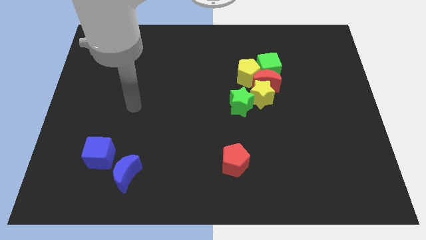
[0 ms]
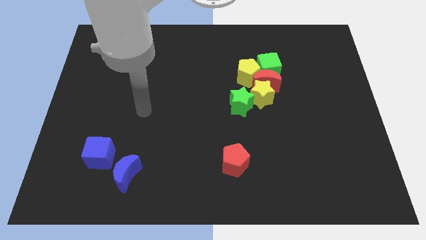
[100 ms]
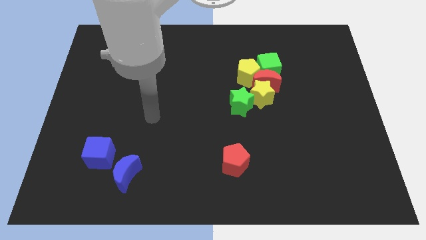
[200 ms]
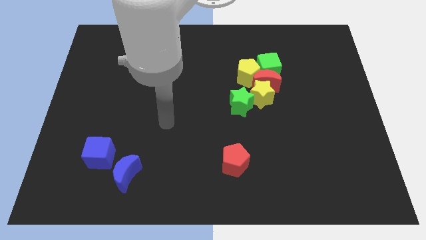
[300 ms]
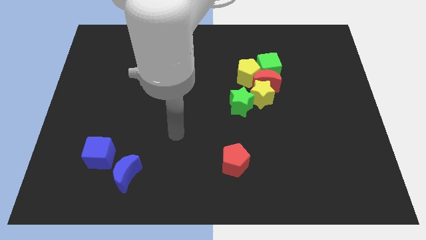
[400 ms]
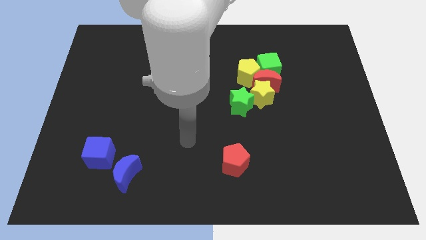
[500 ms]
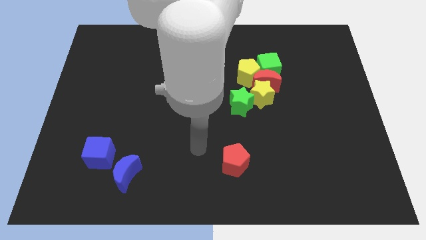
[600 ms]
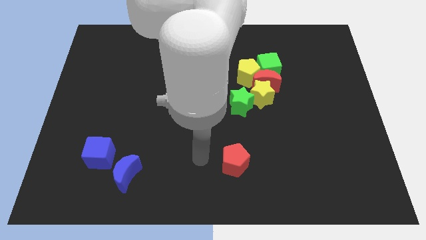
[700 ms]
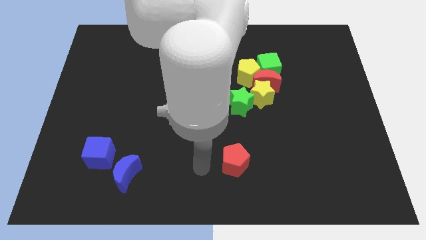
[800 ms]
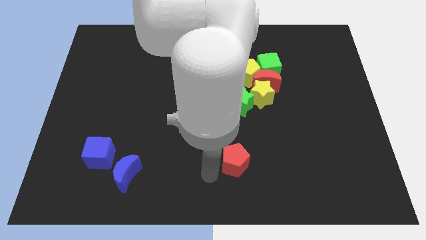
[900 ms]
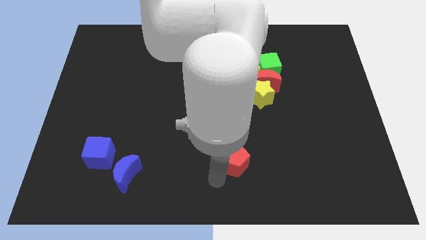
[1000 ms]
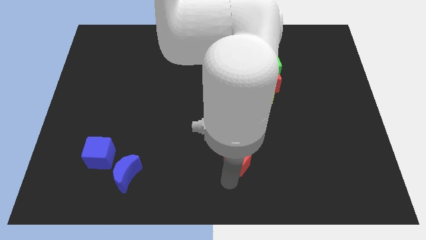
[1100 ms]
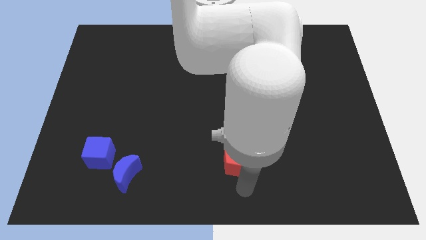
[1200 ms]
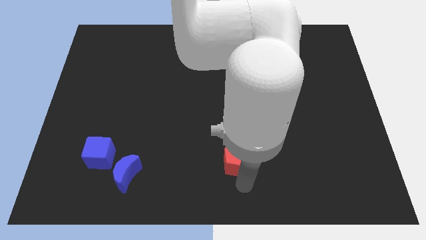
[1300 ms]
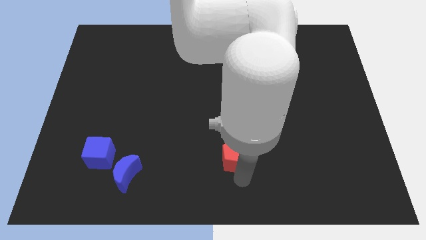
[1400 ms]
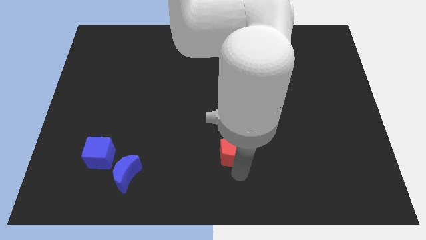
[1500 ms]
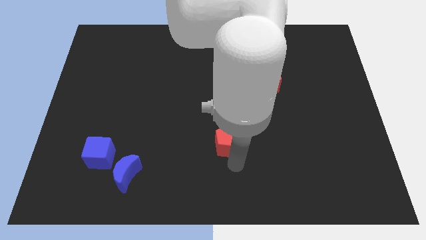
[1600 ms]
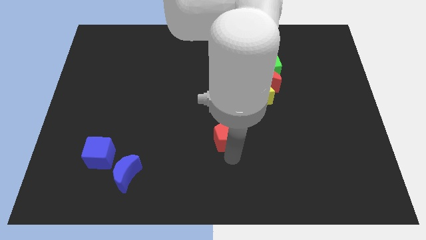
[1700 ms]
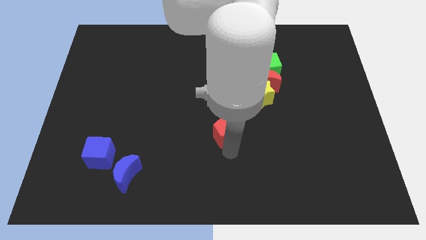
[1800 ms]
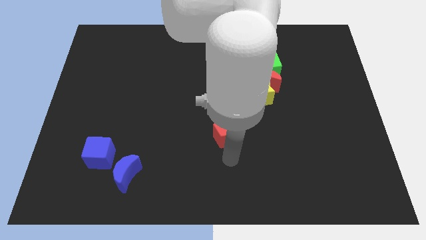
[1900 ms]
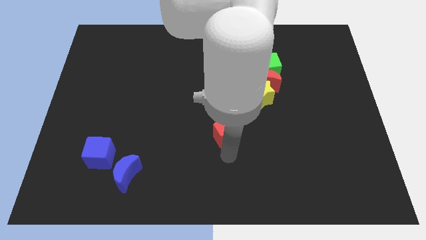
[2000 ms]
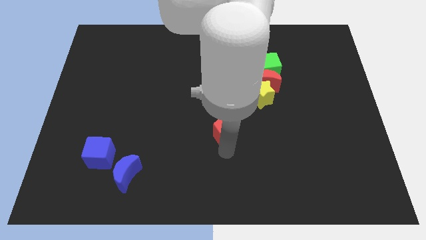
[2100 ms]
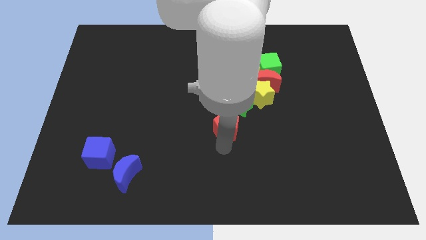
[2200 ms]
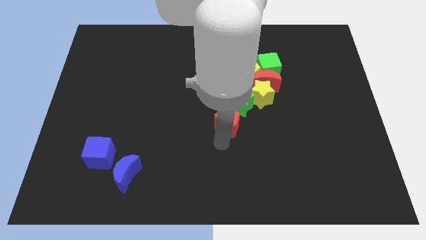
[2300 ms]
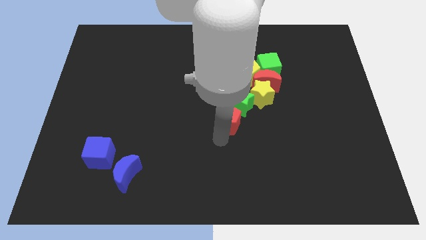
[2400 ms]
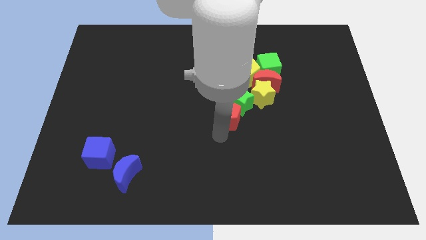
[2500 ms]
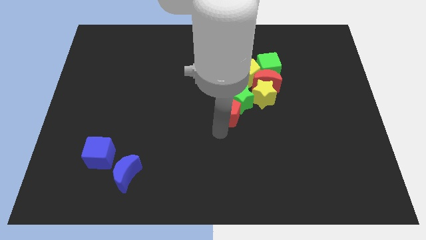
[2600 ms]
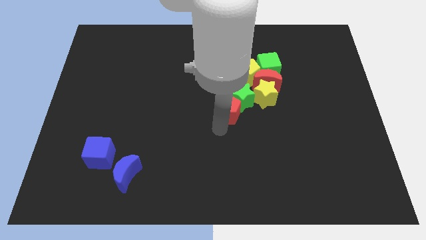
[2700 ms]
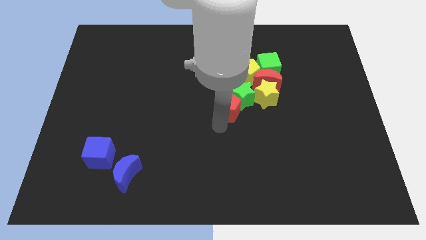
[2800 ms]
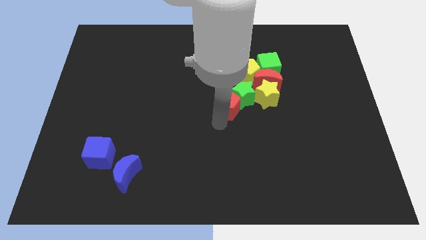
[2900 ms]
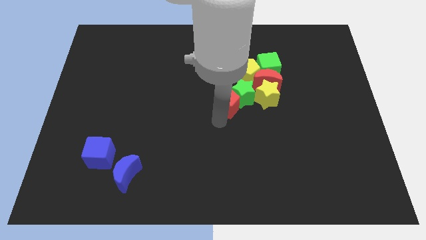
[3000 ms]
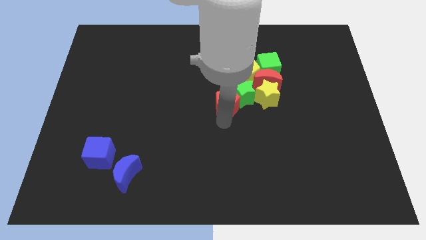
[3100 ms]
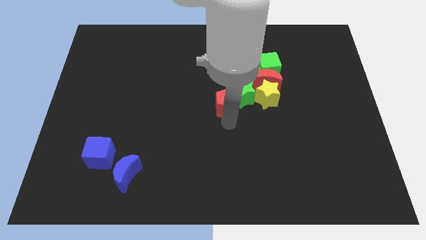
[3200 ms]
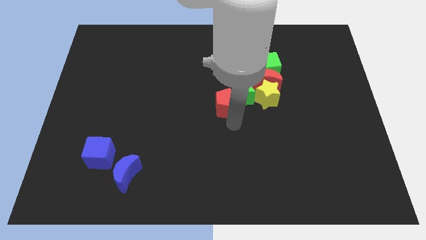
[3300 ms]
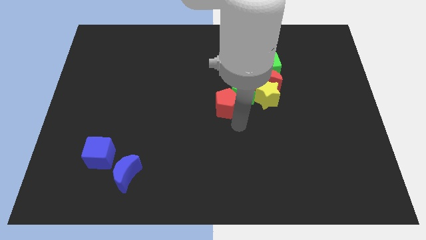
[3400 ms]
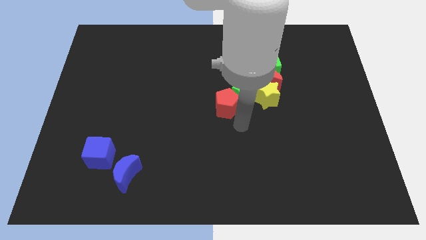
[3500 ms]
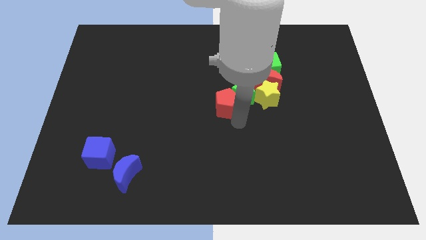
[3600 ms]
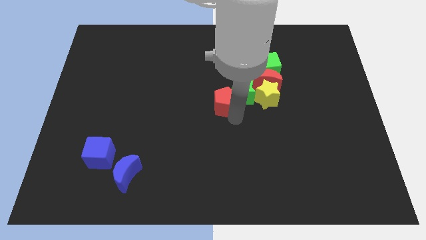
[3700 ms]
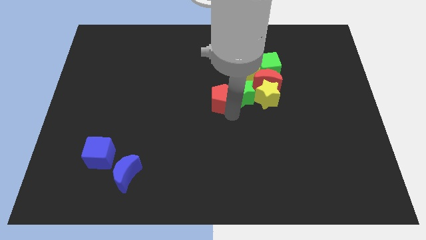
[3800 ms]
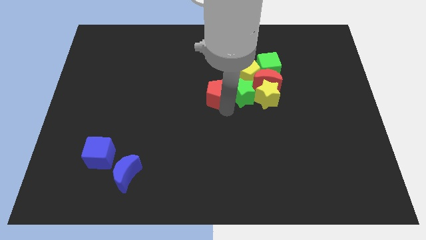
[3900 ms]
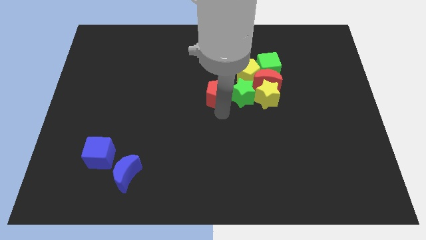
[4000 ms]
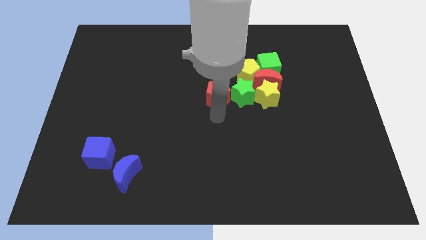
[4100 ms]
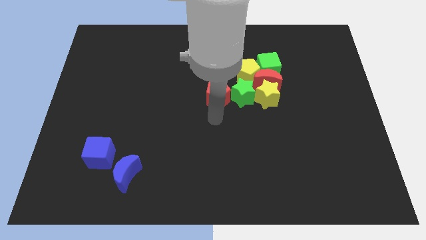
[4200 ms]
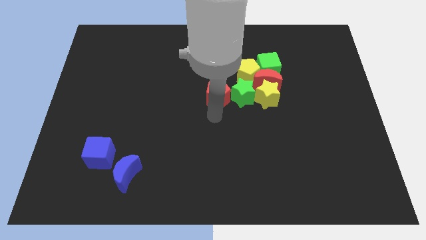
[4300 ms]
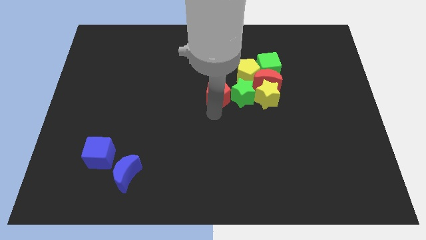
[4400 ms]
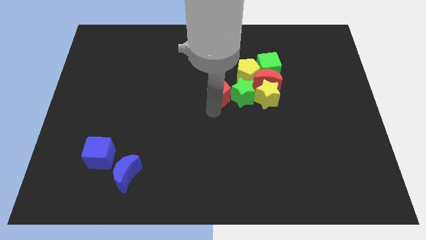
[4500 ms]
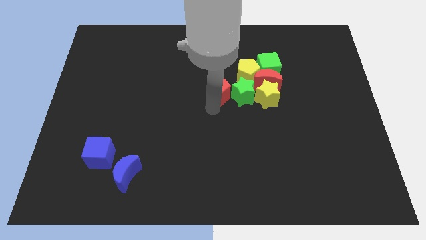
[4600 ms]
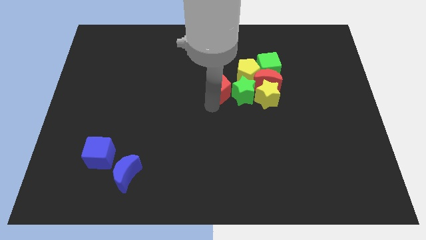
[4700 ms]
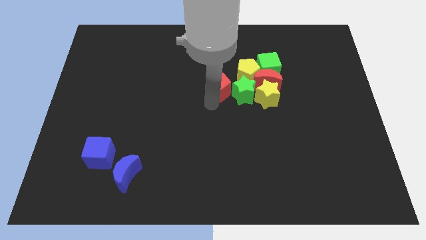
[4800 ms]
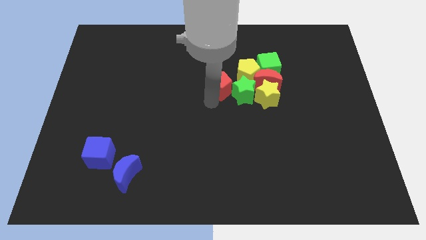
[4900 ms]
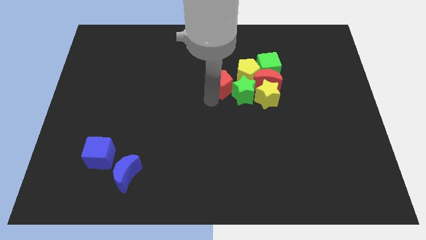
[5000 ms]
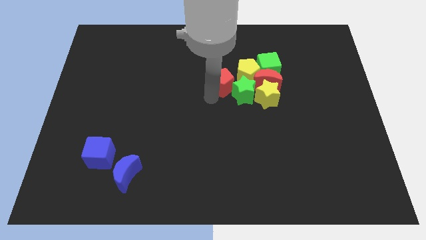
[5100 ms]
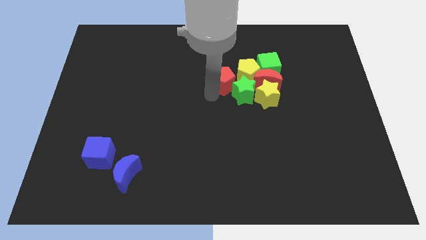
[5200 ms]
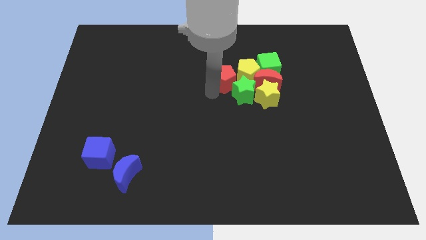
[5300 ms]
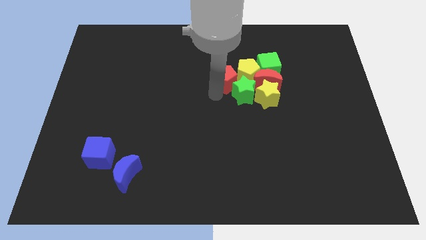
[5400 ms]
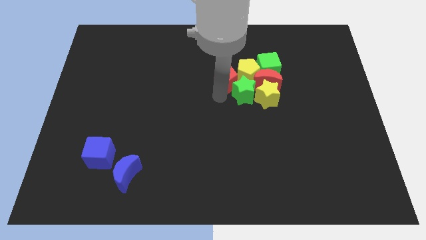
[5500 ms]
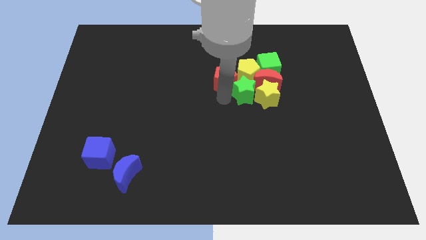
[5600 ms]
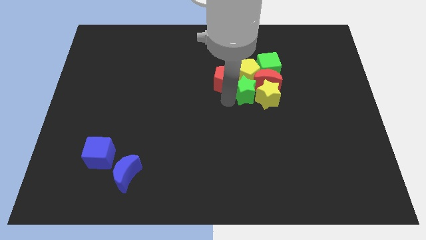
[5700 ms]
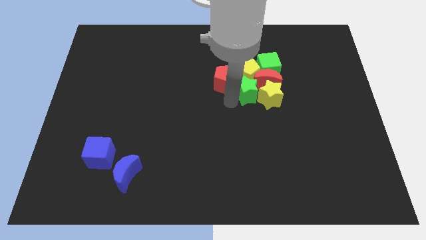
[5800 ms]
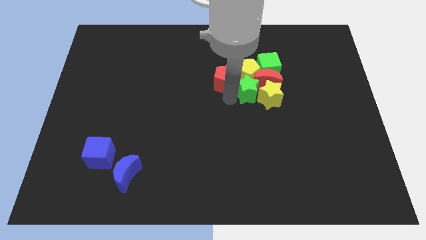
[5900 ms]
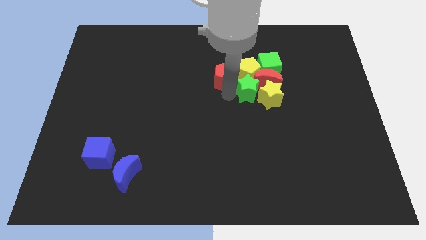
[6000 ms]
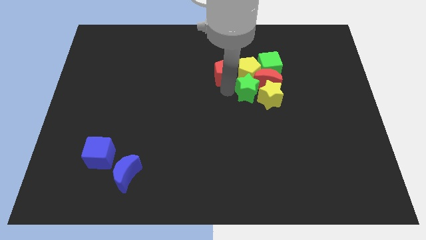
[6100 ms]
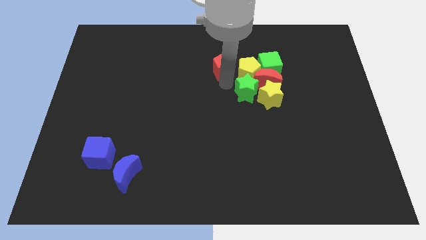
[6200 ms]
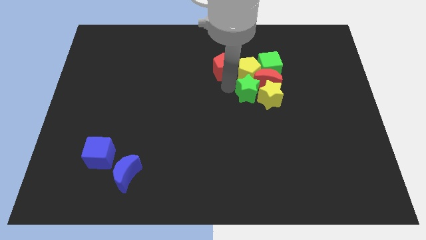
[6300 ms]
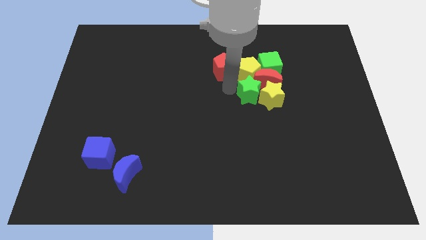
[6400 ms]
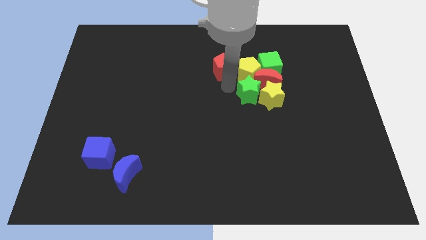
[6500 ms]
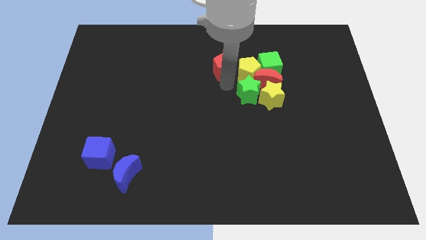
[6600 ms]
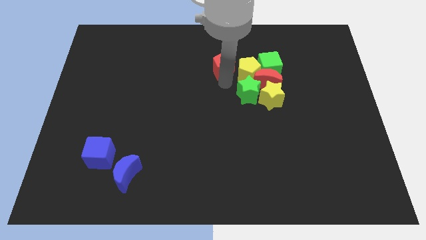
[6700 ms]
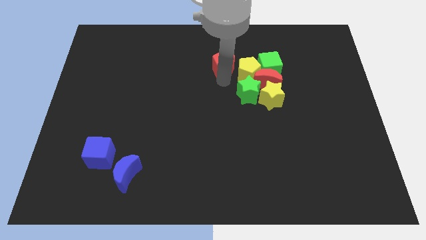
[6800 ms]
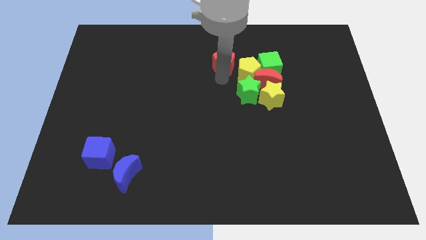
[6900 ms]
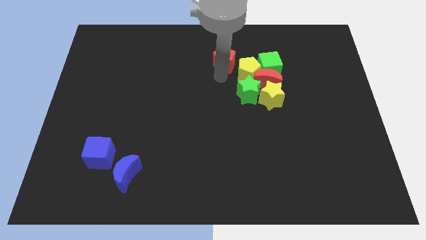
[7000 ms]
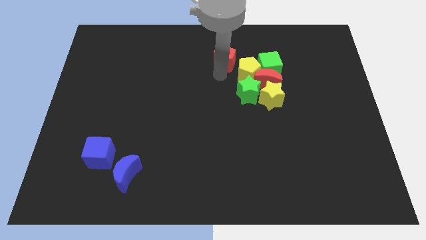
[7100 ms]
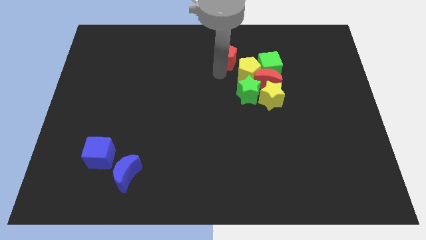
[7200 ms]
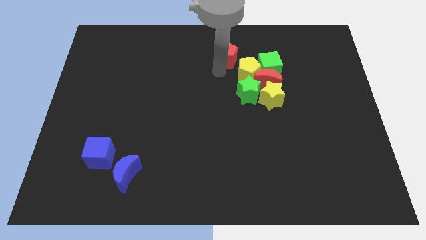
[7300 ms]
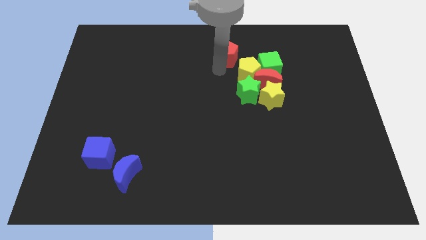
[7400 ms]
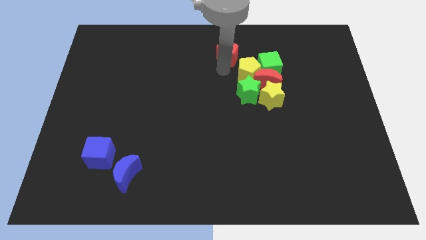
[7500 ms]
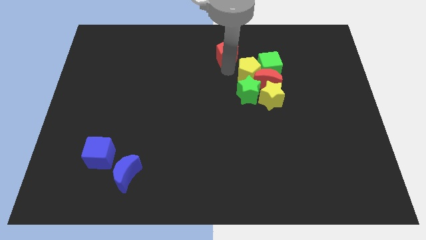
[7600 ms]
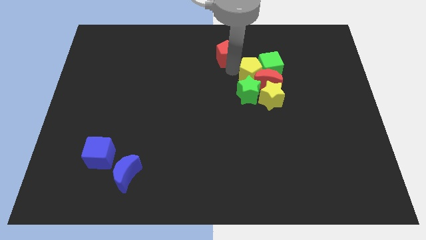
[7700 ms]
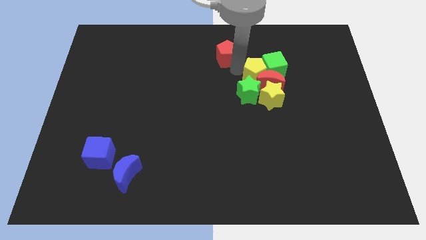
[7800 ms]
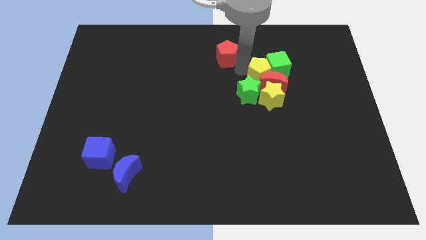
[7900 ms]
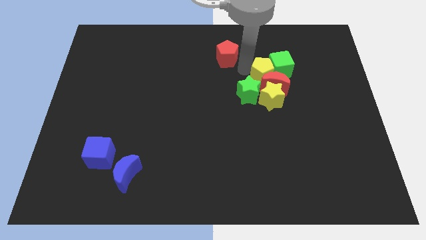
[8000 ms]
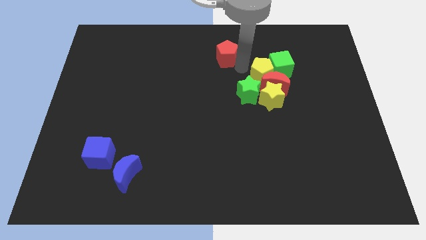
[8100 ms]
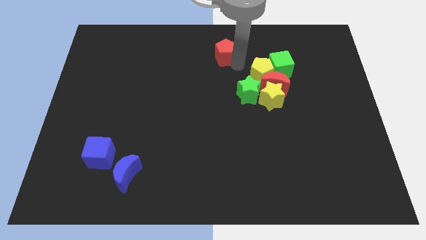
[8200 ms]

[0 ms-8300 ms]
slide the red pentagon to the top side
